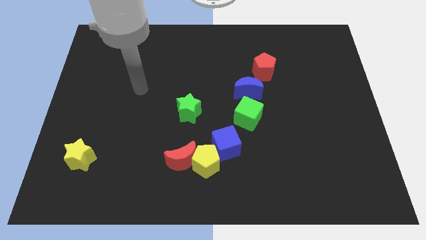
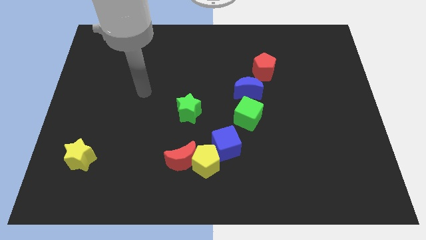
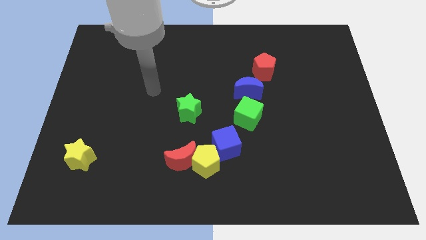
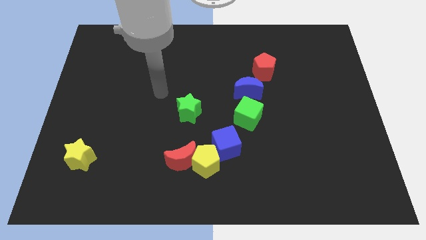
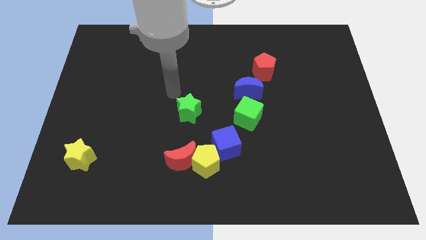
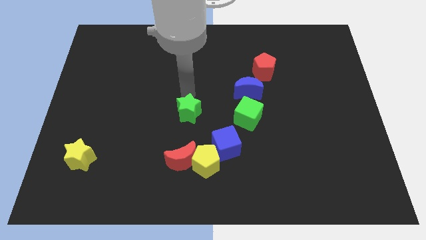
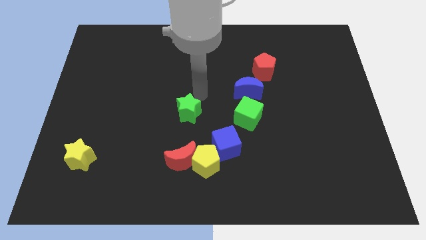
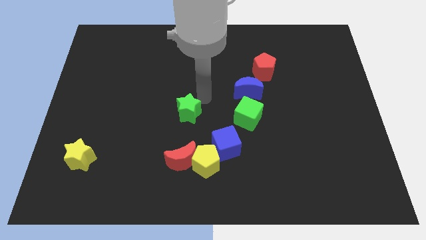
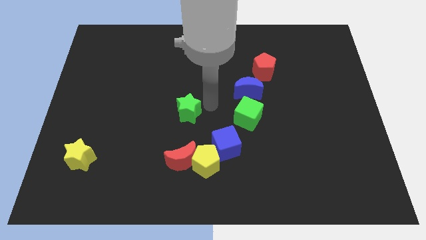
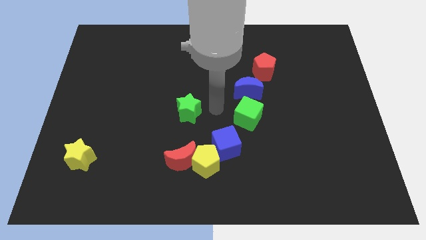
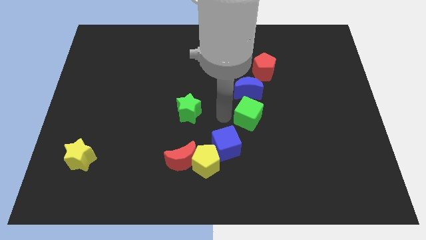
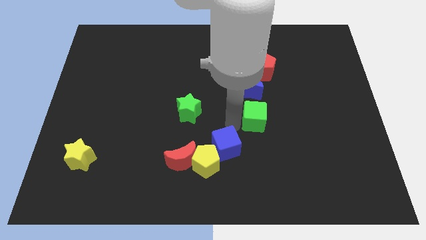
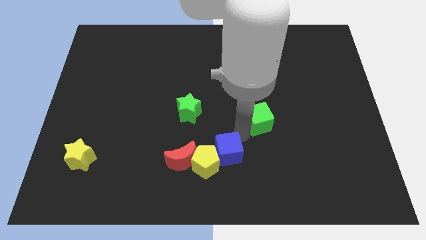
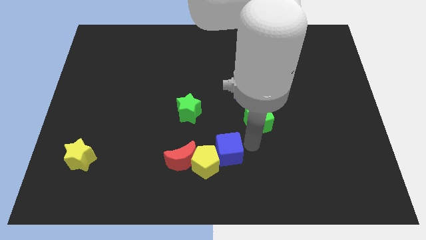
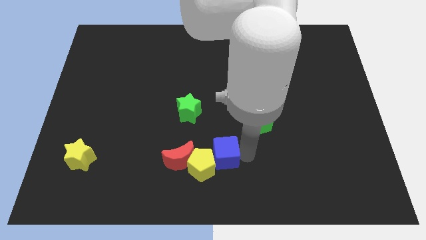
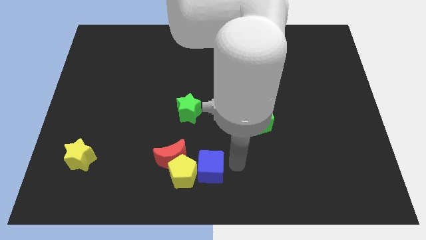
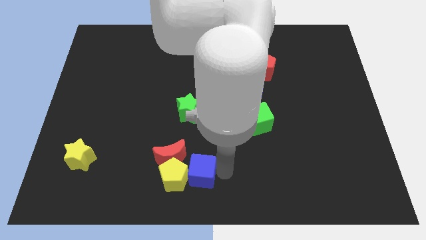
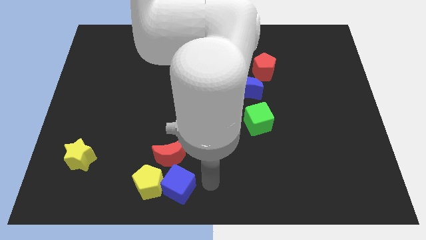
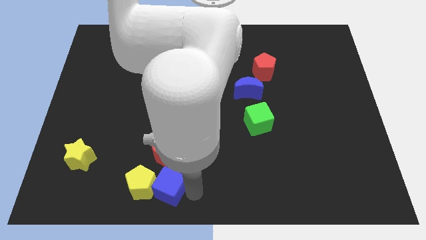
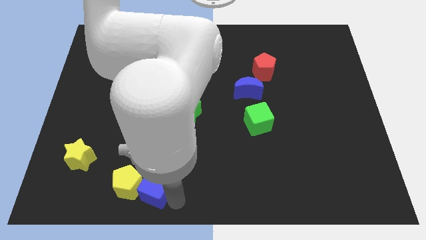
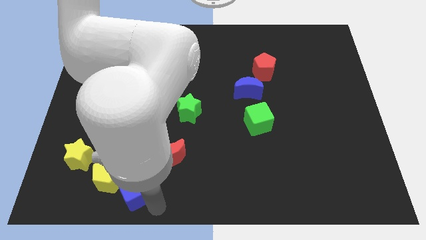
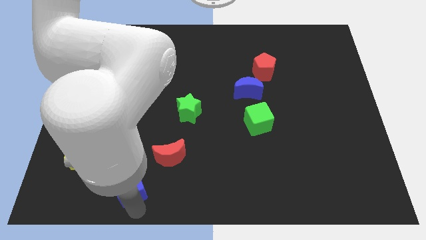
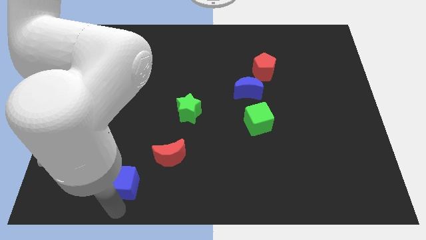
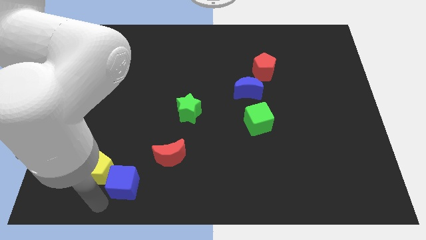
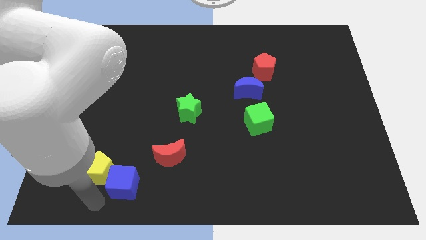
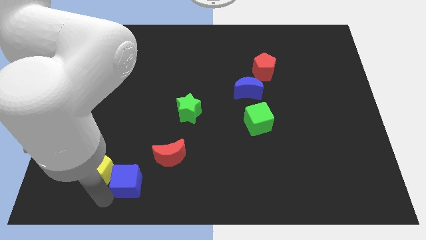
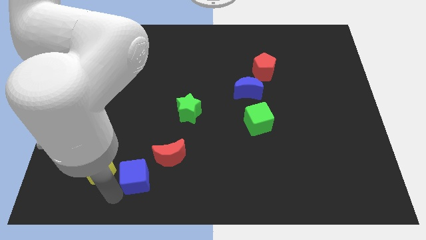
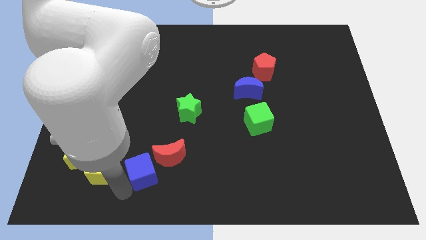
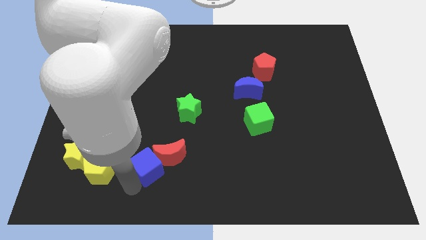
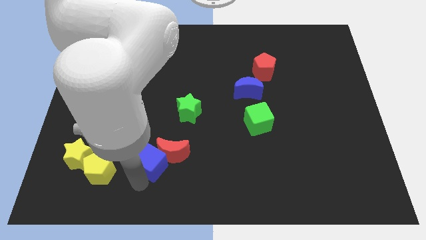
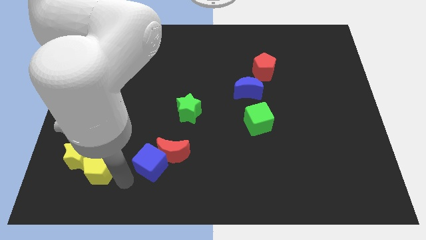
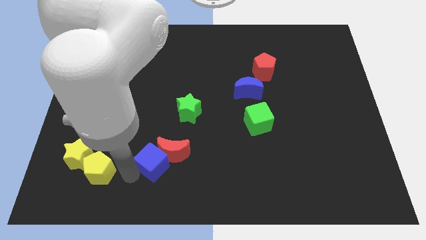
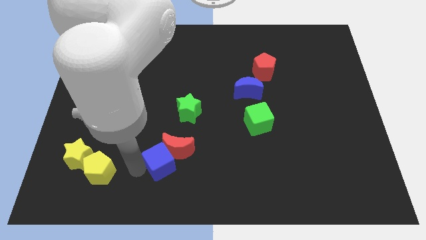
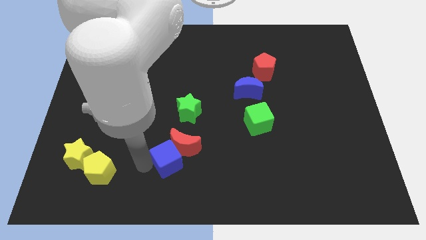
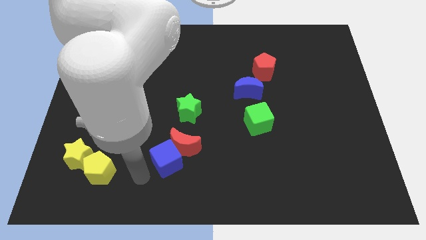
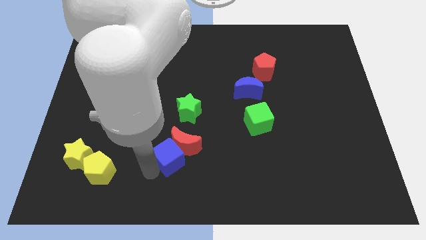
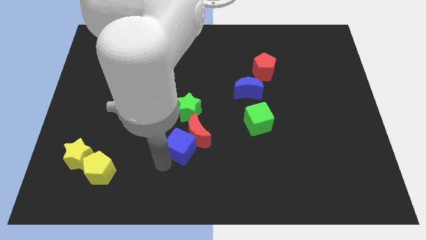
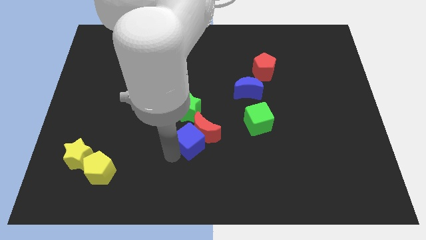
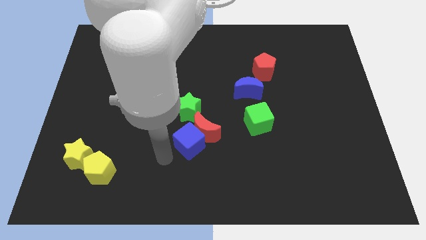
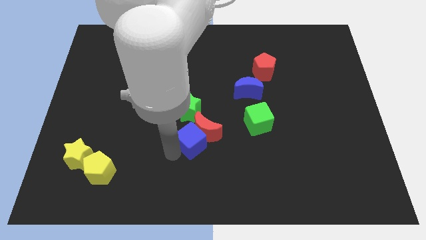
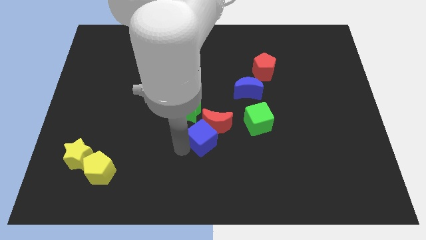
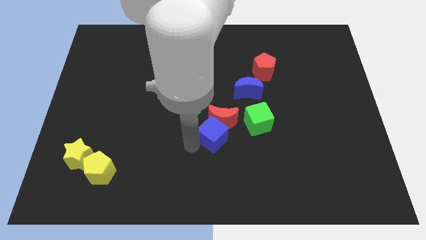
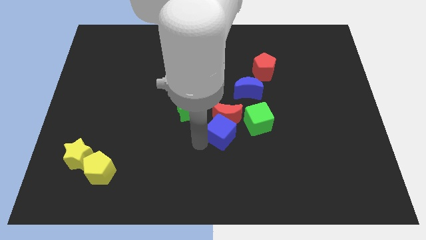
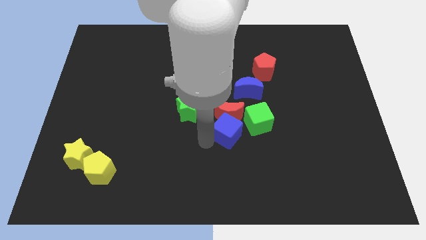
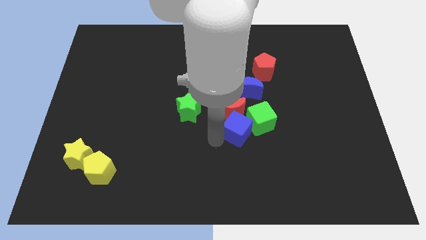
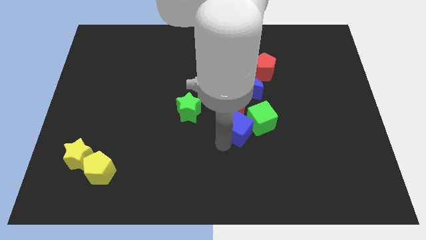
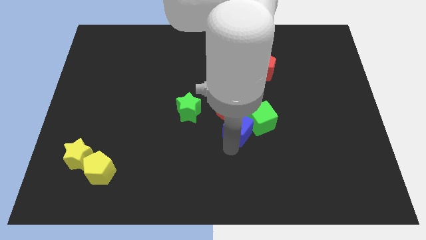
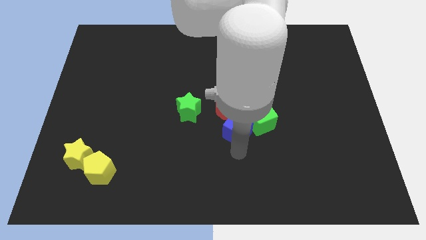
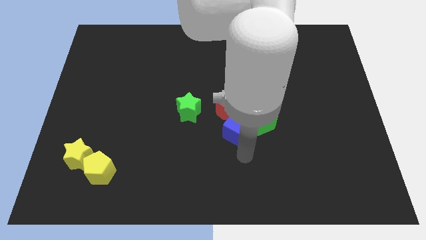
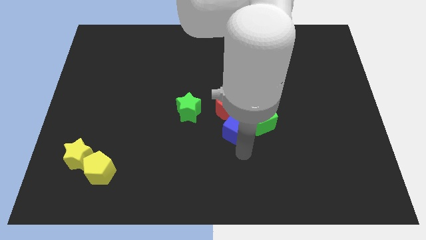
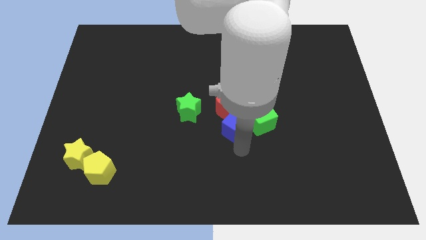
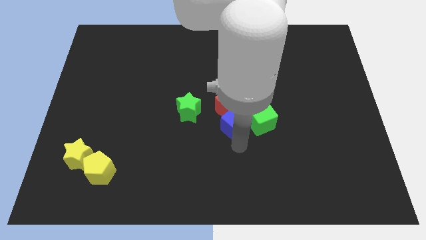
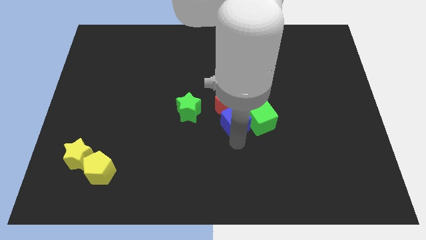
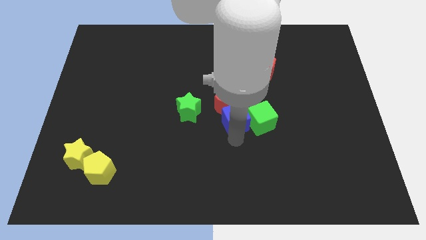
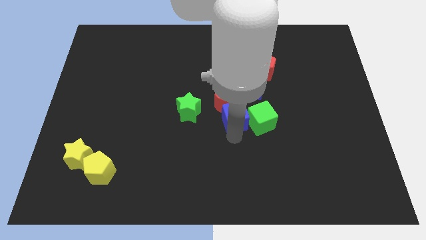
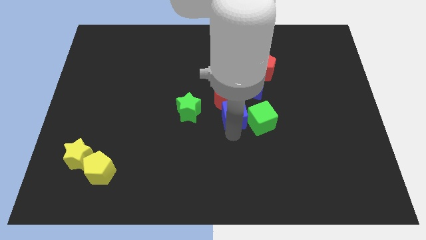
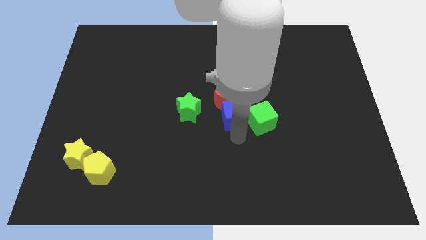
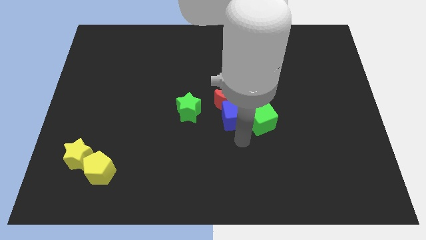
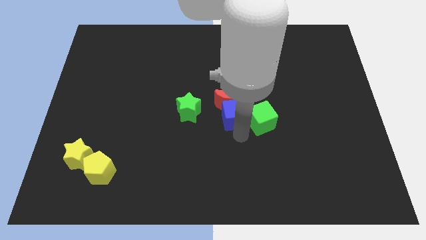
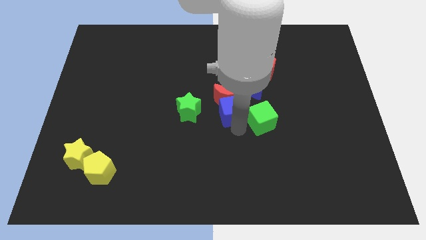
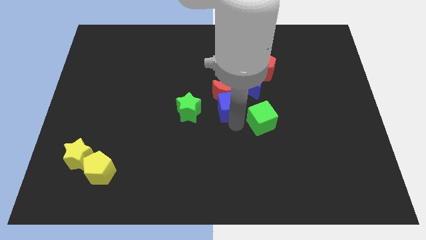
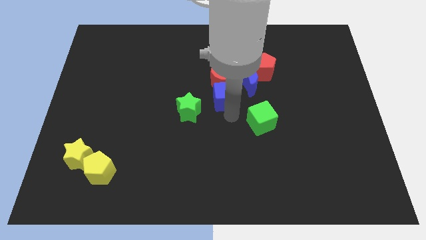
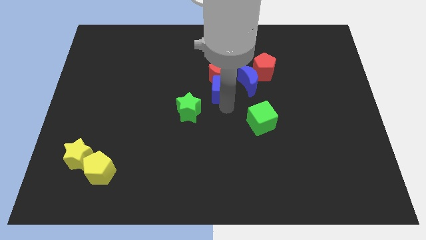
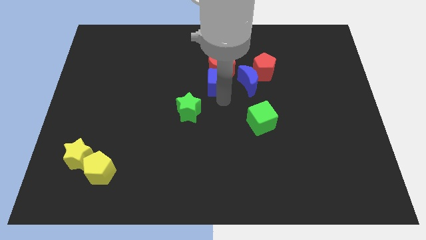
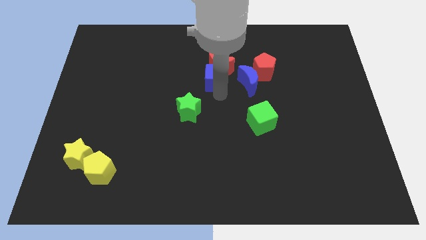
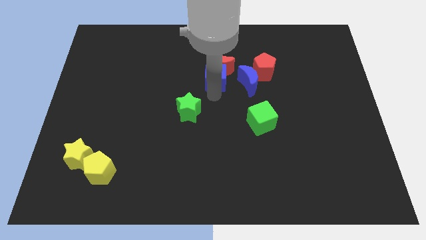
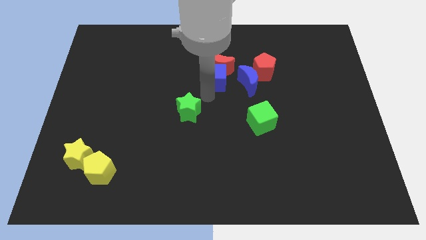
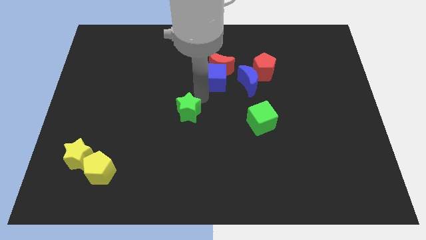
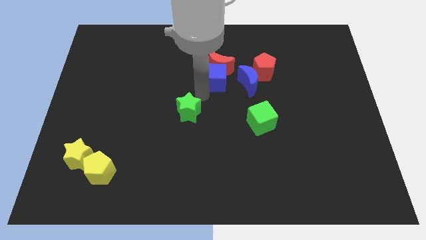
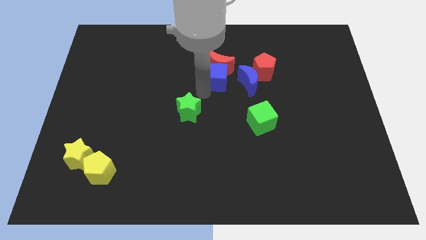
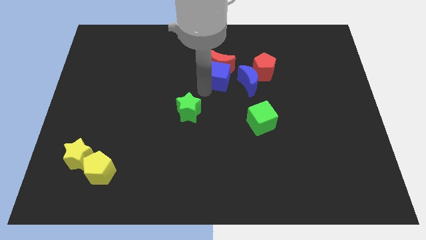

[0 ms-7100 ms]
slide the blue cube to the top left side of the blue moon

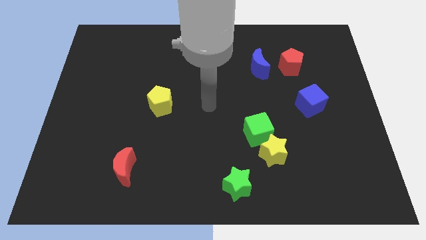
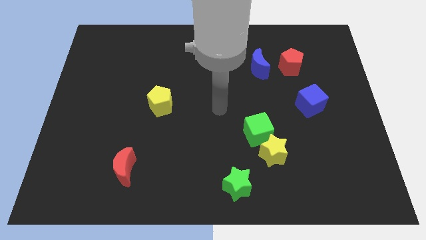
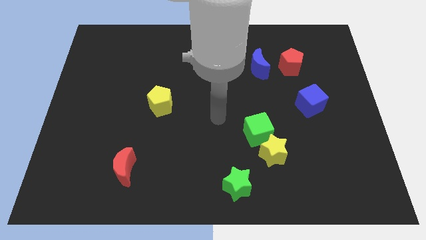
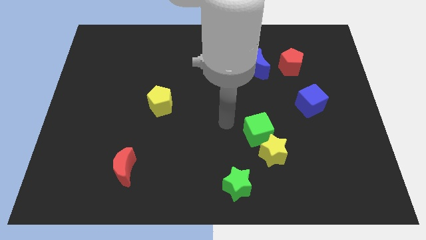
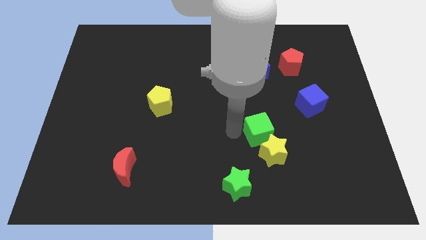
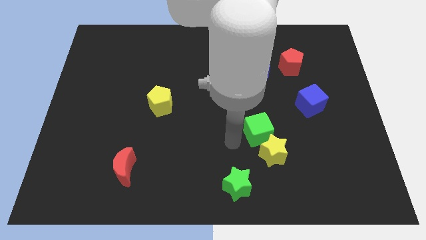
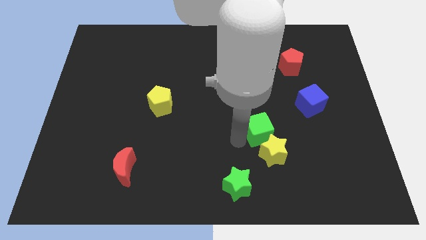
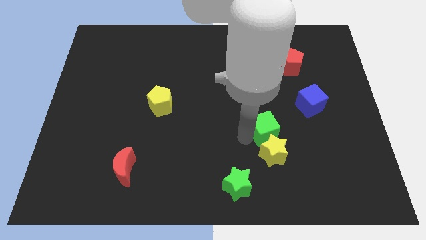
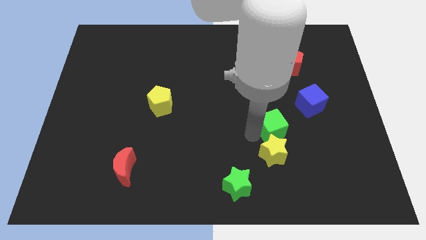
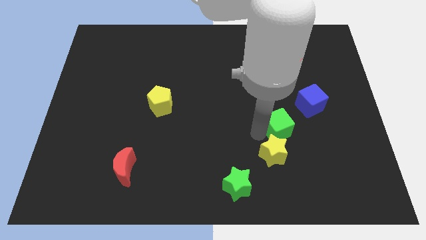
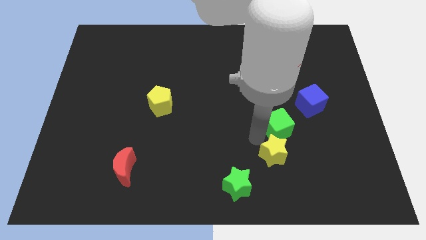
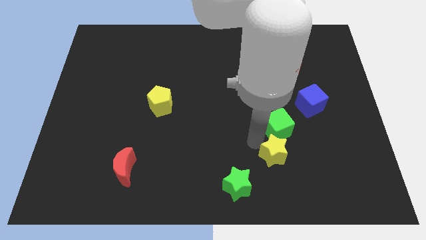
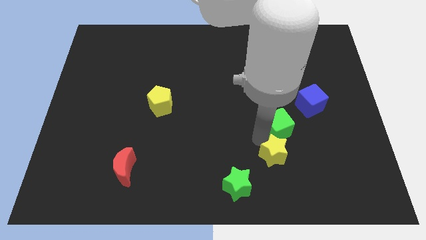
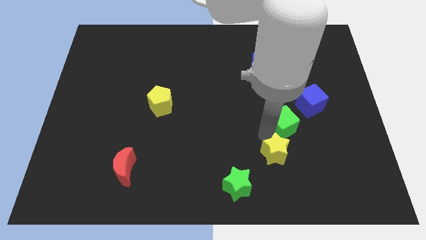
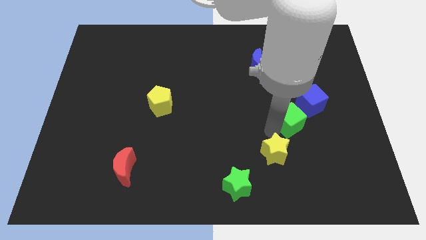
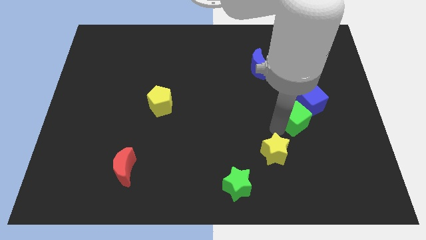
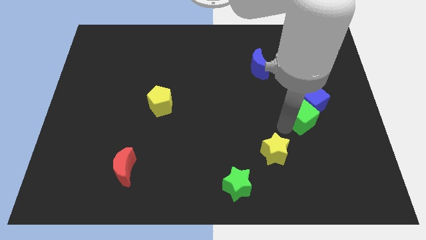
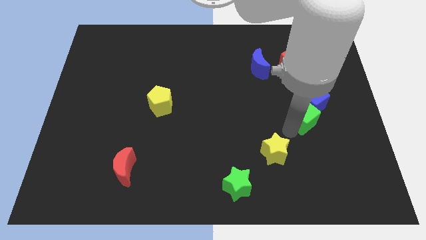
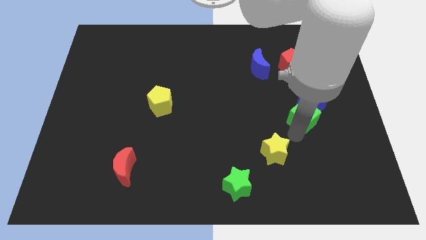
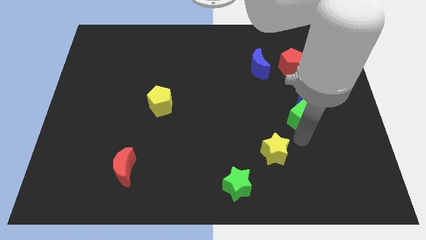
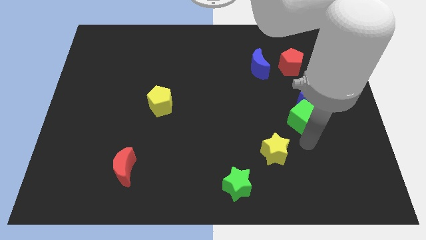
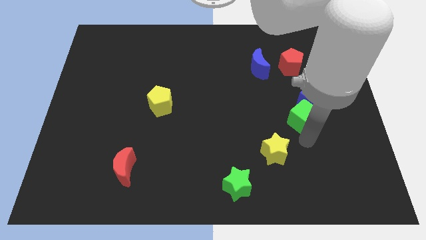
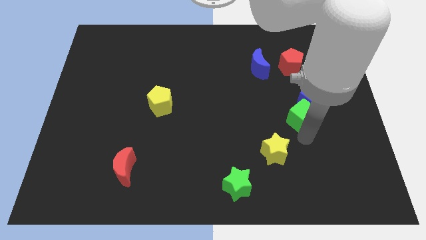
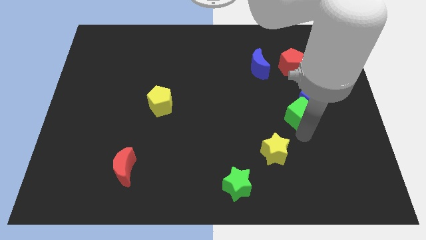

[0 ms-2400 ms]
put the green cube to the bottom side of the red pentagon
